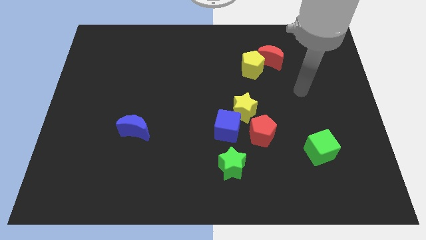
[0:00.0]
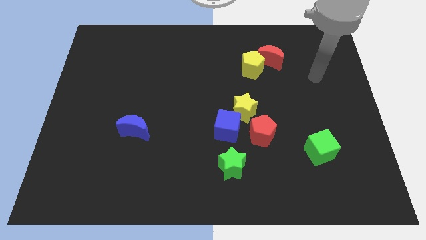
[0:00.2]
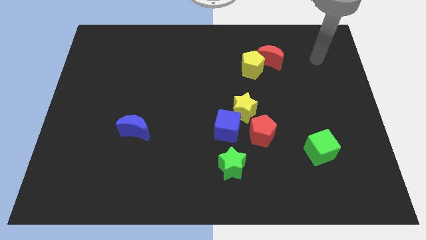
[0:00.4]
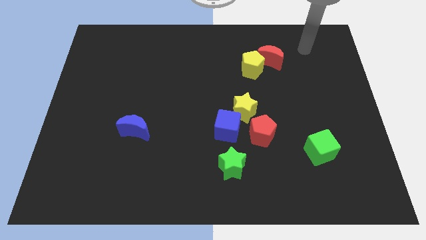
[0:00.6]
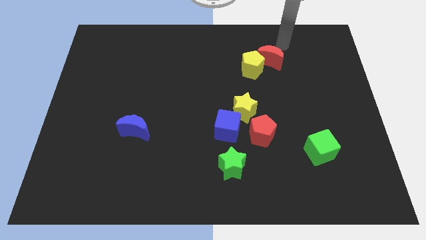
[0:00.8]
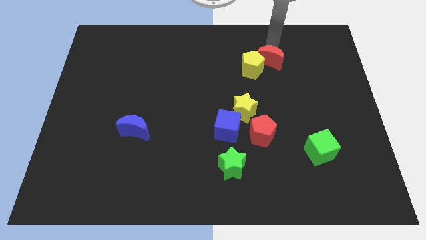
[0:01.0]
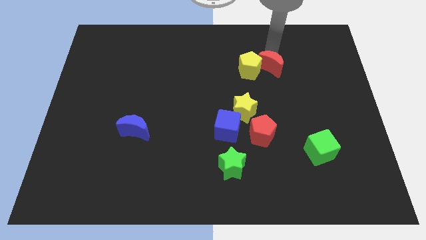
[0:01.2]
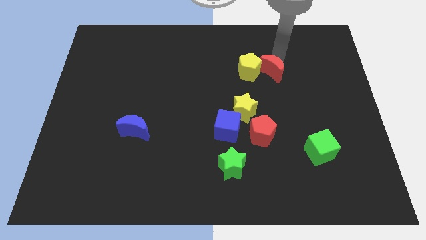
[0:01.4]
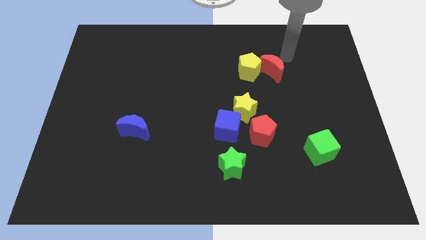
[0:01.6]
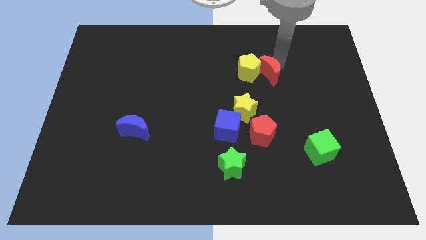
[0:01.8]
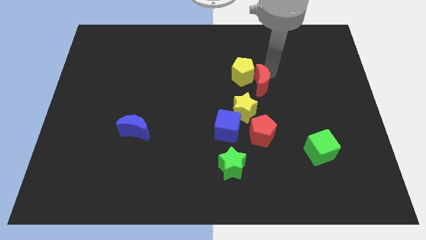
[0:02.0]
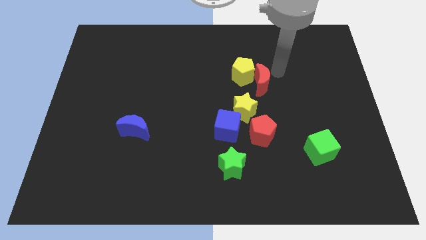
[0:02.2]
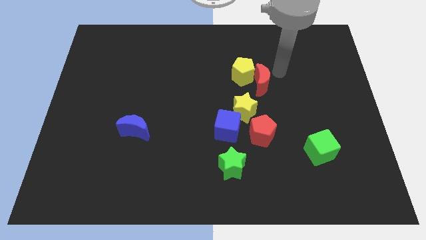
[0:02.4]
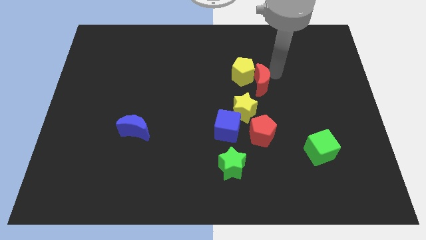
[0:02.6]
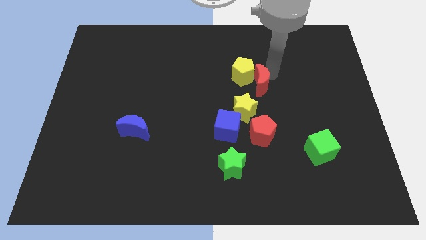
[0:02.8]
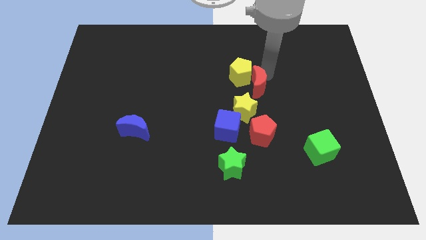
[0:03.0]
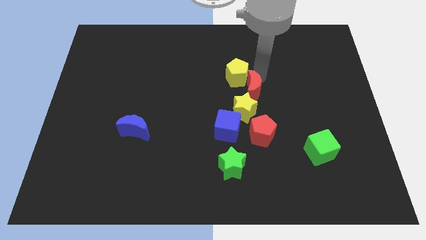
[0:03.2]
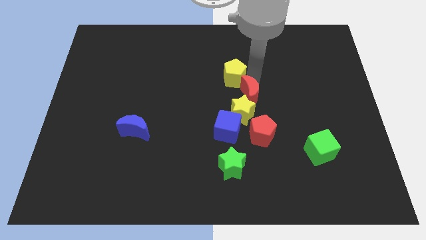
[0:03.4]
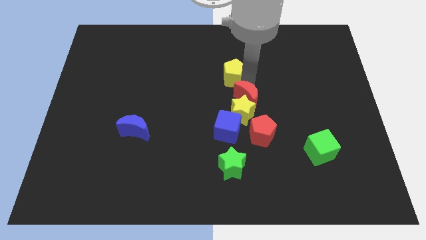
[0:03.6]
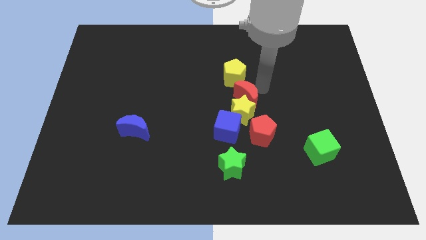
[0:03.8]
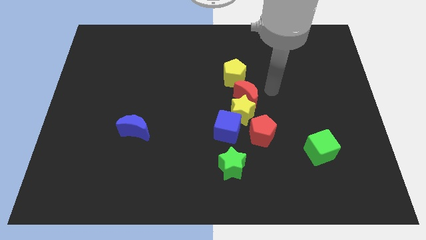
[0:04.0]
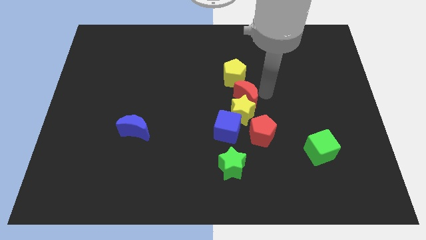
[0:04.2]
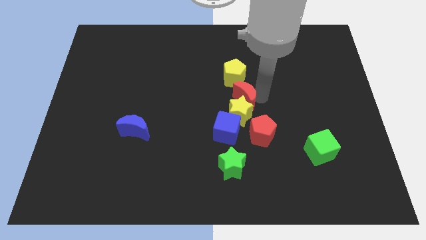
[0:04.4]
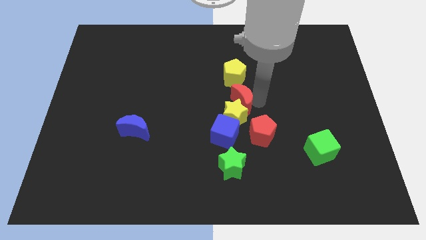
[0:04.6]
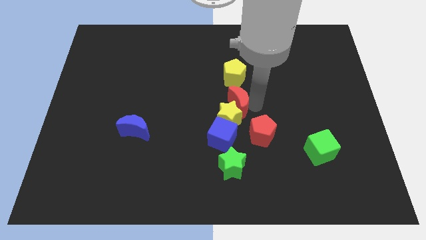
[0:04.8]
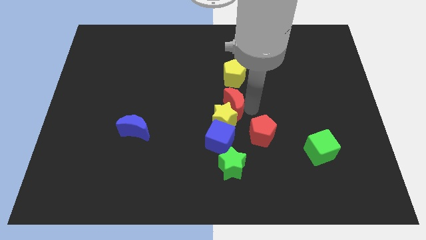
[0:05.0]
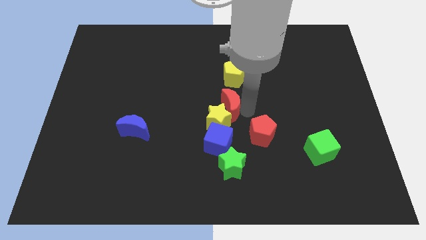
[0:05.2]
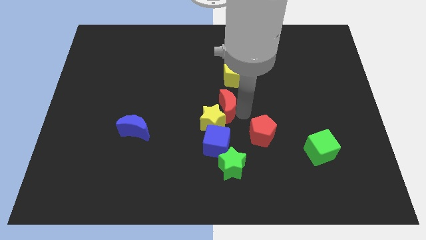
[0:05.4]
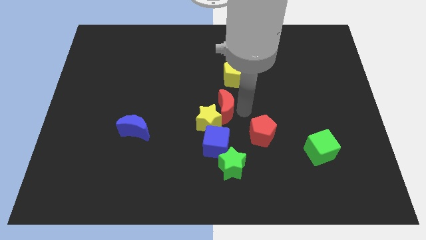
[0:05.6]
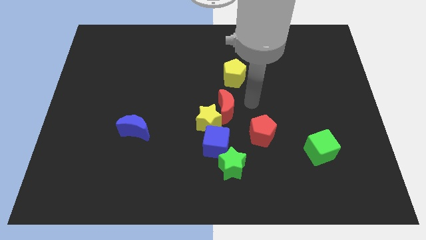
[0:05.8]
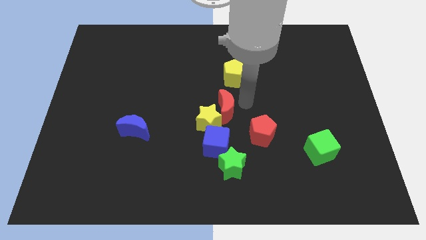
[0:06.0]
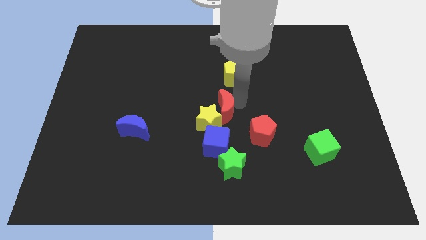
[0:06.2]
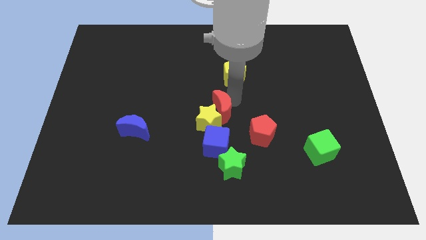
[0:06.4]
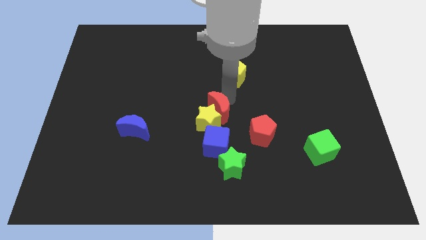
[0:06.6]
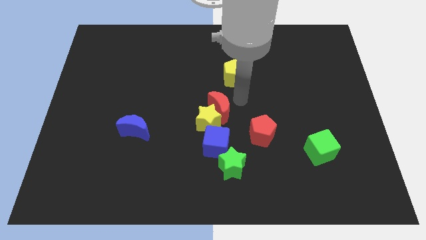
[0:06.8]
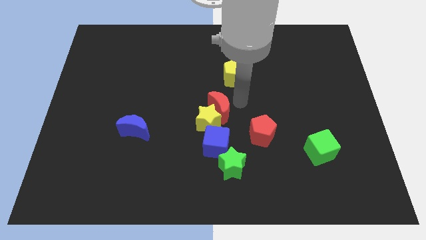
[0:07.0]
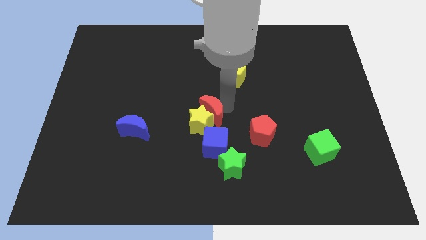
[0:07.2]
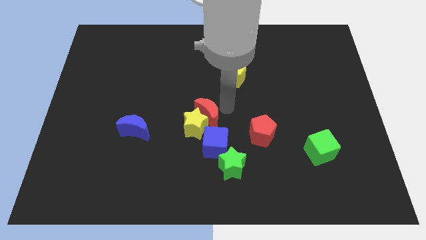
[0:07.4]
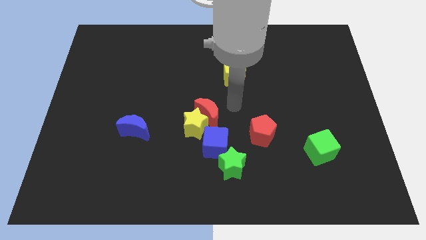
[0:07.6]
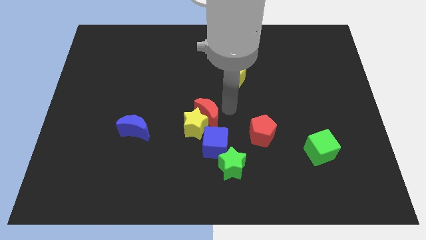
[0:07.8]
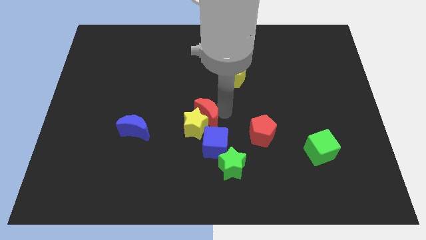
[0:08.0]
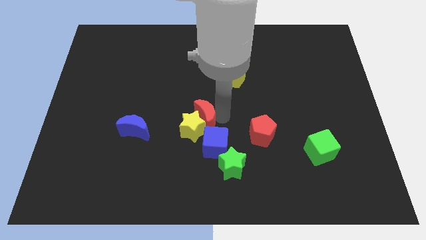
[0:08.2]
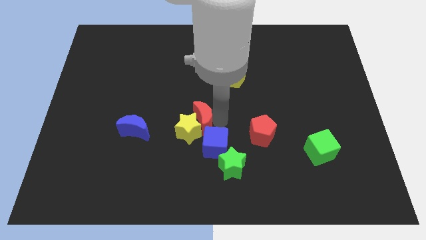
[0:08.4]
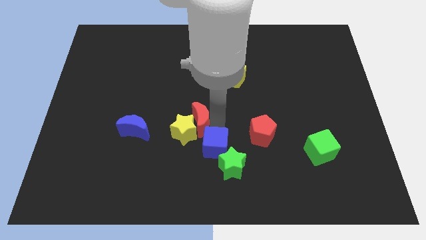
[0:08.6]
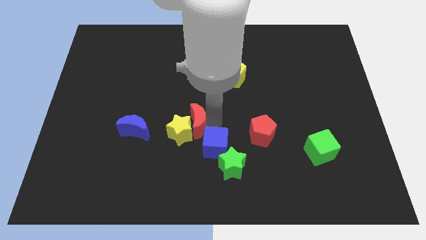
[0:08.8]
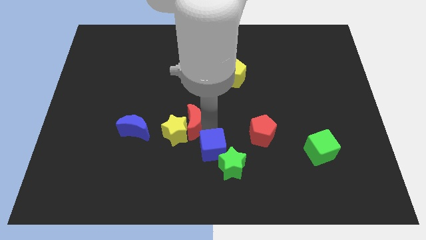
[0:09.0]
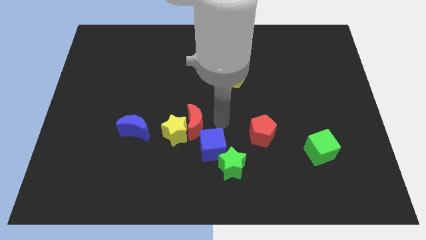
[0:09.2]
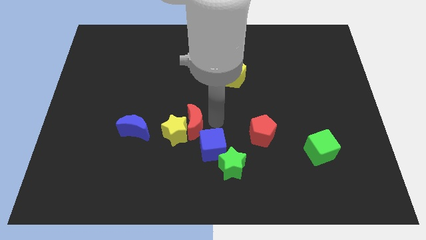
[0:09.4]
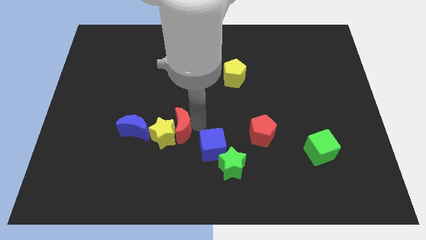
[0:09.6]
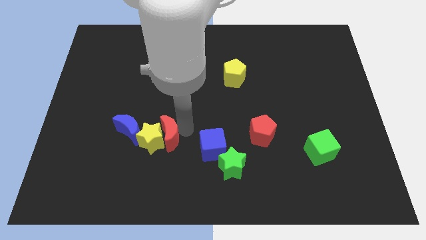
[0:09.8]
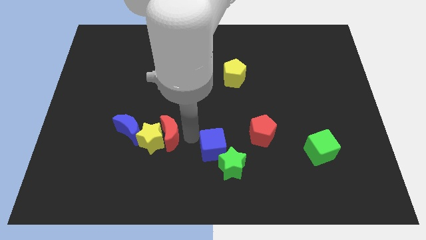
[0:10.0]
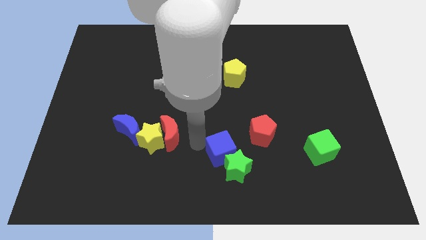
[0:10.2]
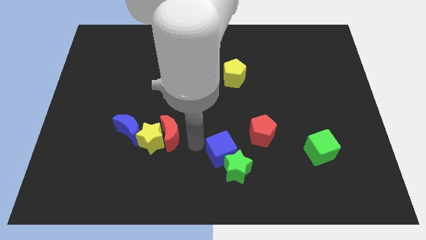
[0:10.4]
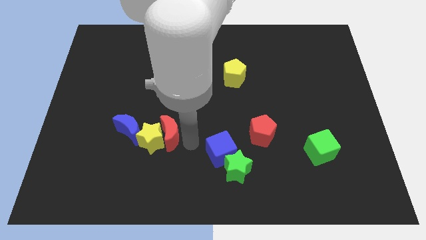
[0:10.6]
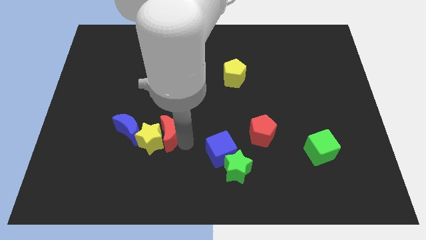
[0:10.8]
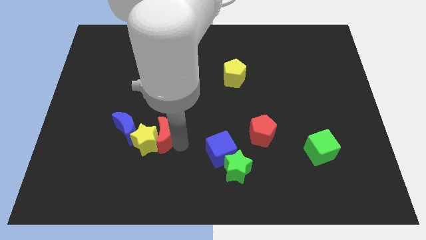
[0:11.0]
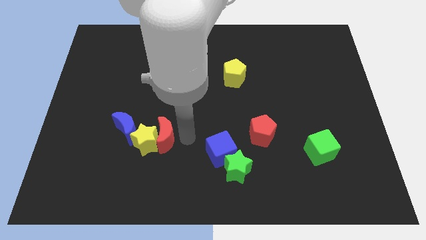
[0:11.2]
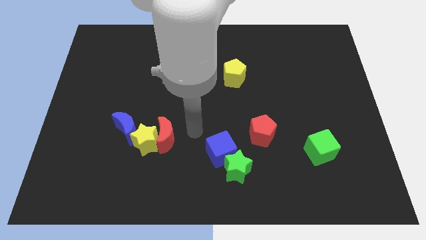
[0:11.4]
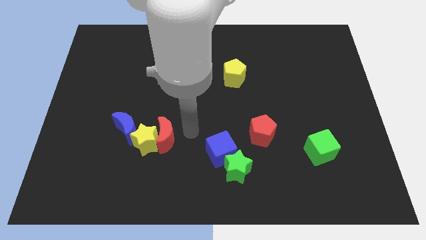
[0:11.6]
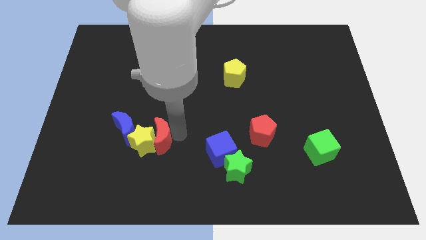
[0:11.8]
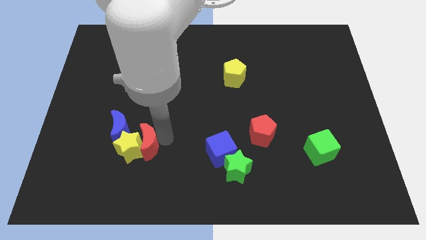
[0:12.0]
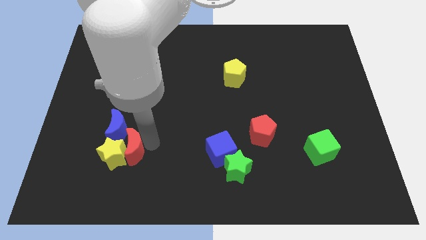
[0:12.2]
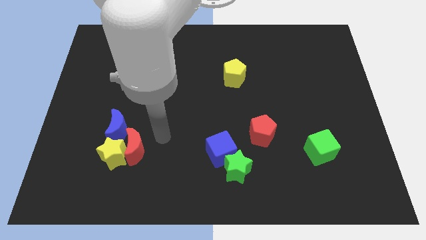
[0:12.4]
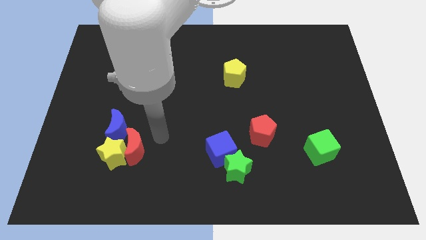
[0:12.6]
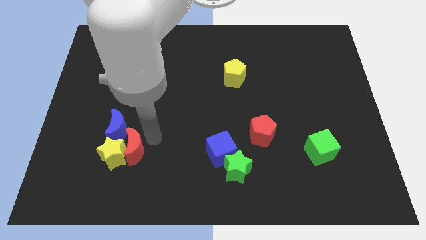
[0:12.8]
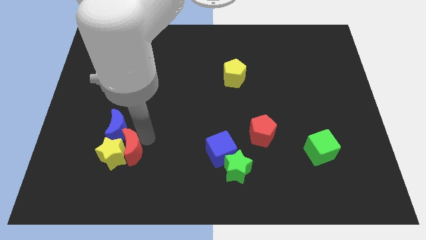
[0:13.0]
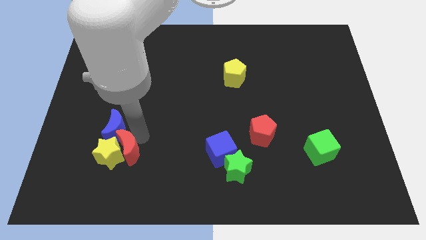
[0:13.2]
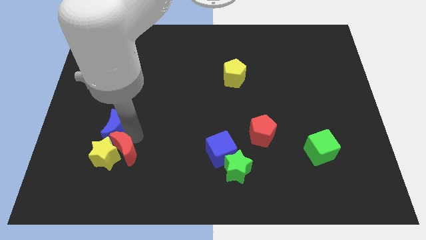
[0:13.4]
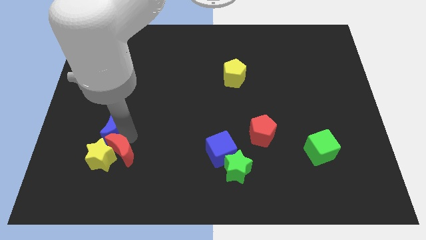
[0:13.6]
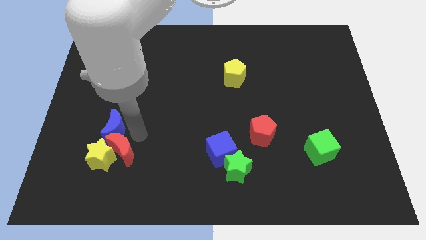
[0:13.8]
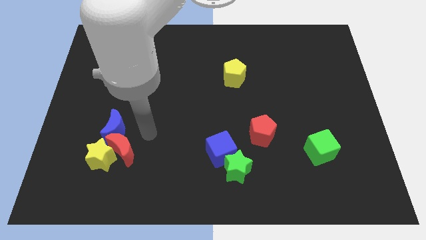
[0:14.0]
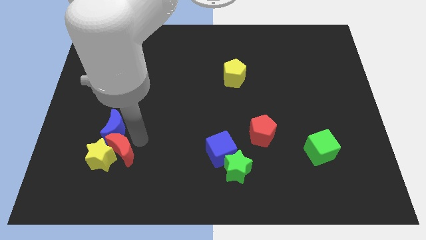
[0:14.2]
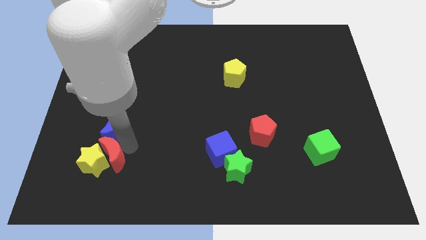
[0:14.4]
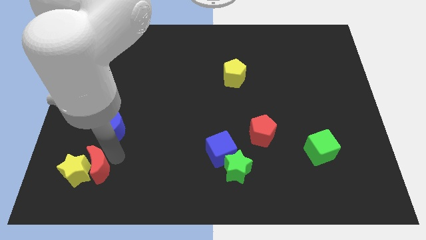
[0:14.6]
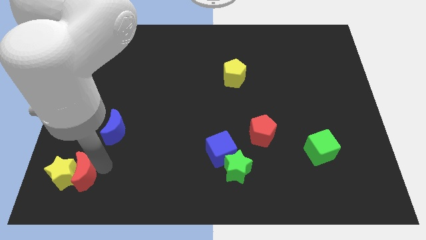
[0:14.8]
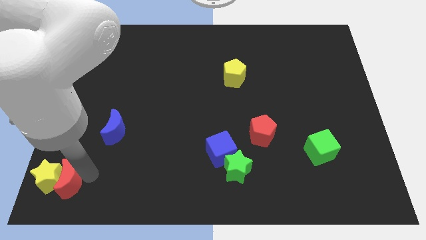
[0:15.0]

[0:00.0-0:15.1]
push the red moon to the lower left corner
